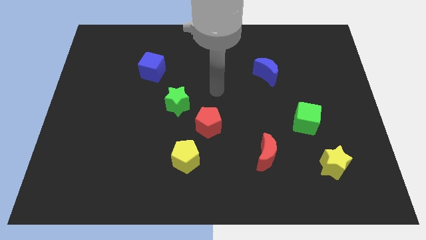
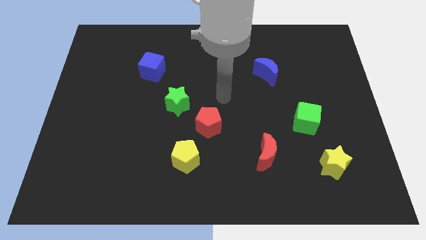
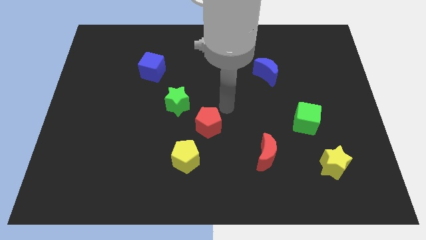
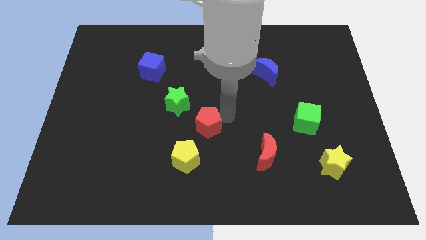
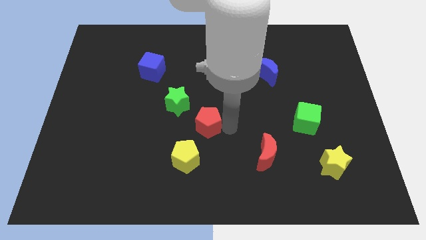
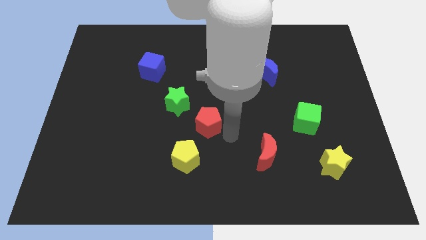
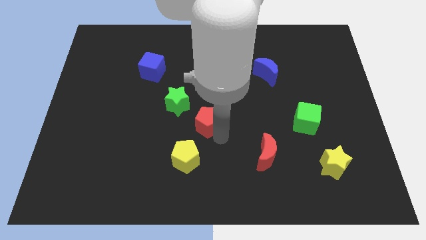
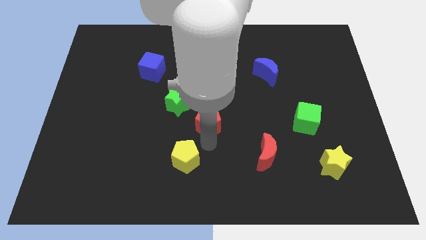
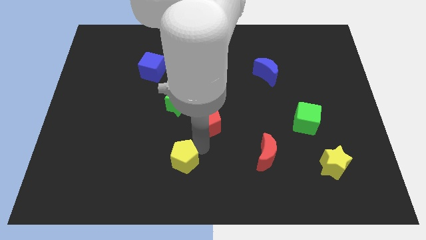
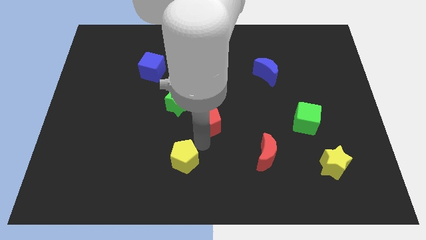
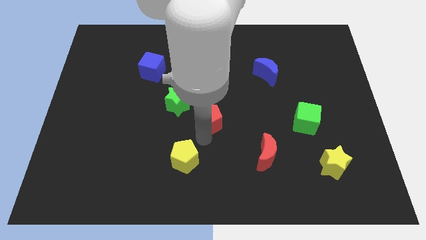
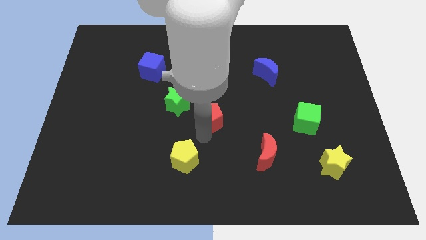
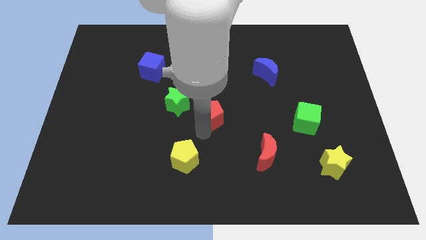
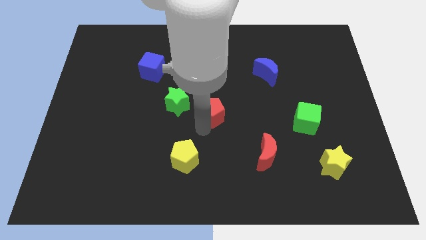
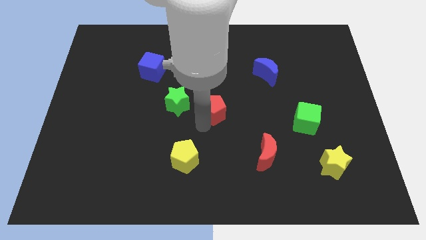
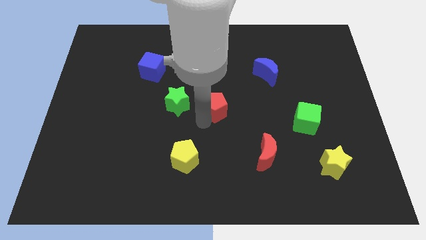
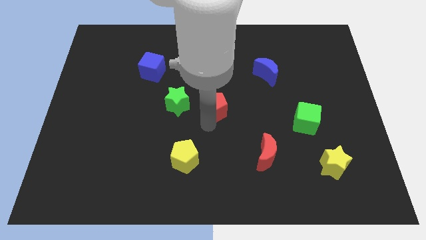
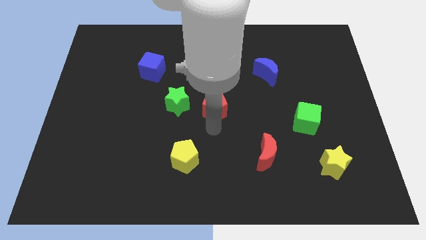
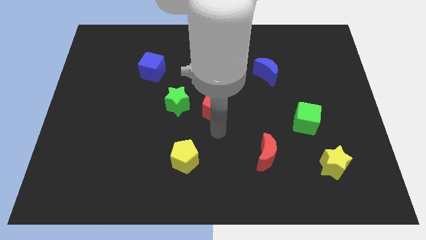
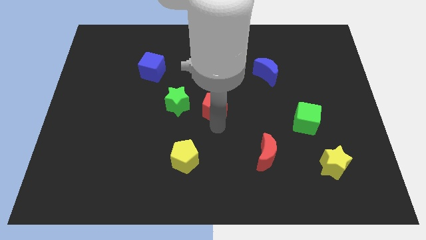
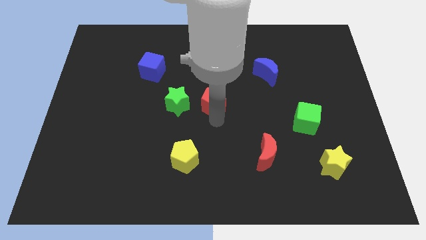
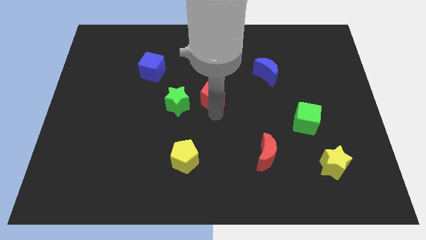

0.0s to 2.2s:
slightly move the red pentagon upwards

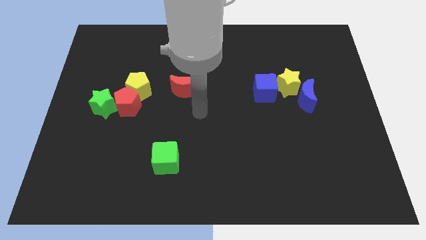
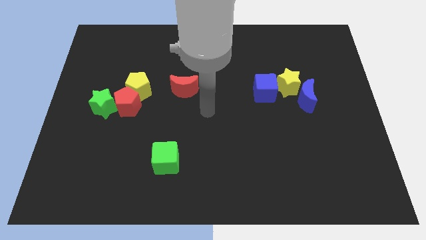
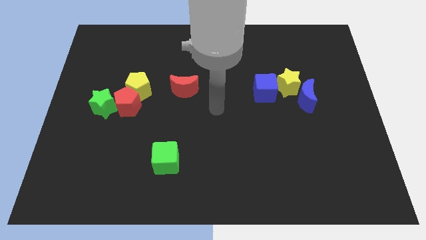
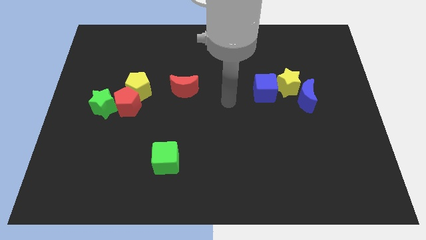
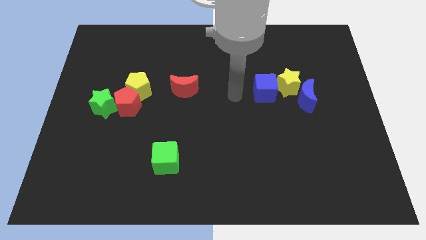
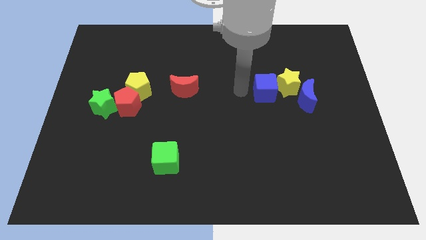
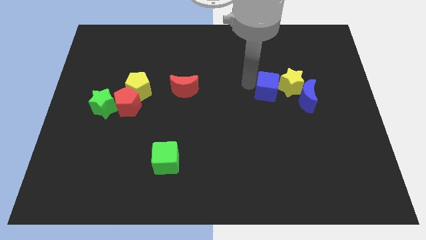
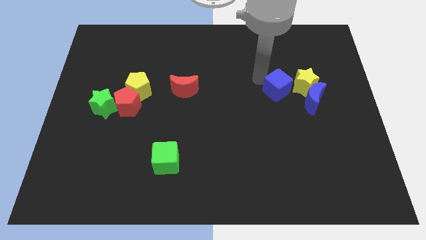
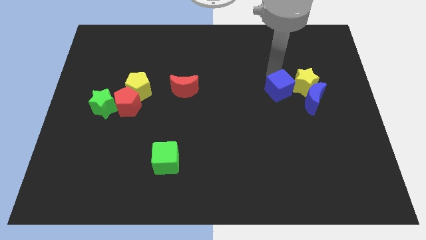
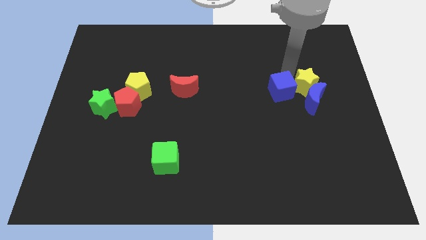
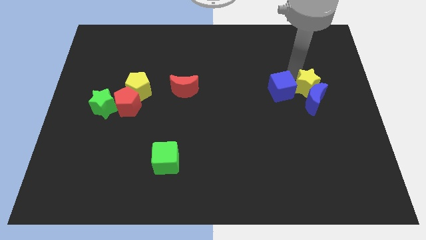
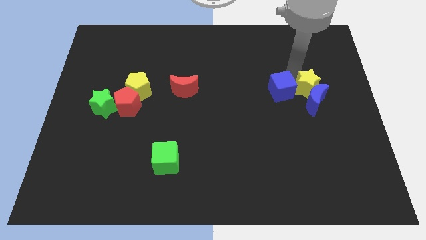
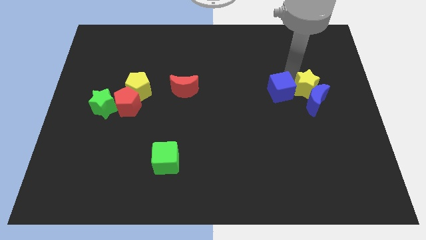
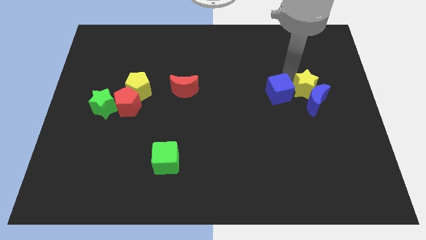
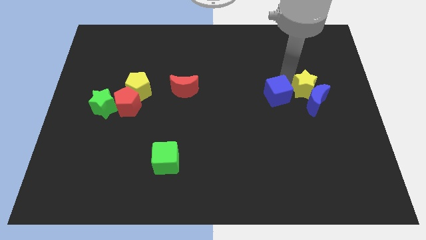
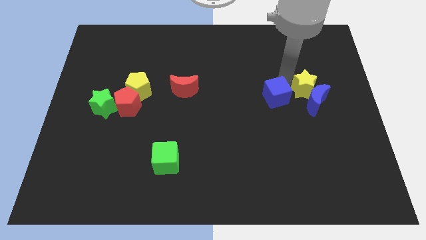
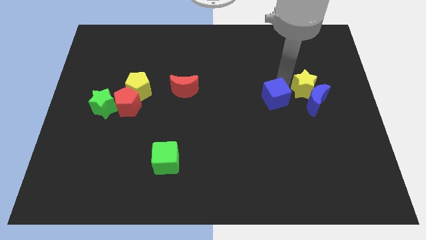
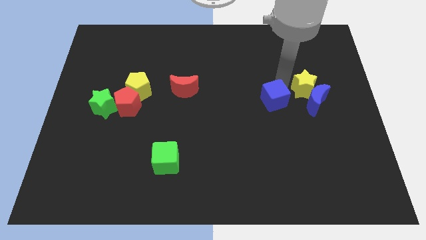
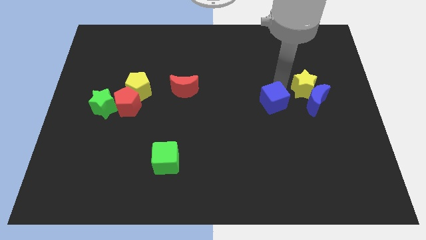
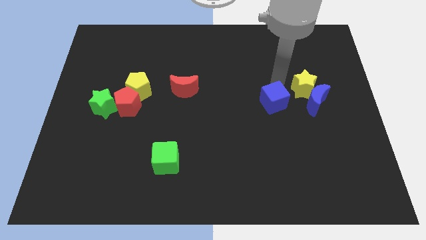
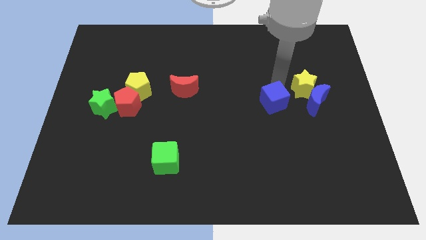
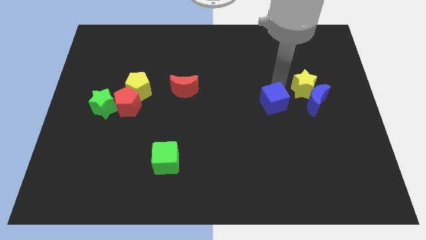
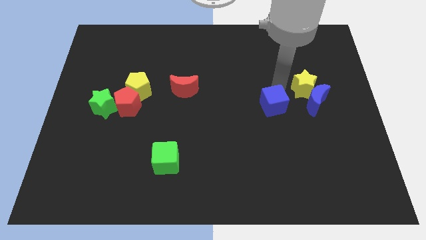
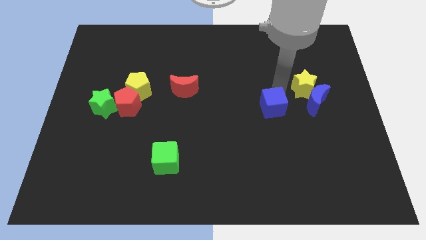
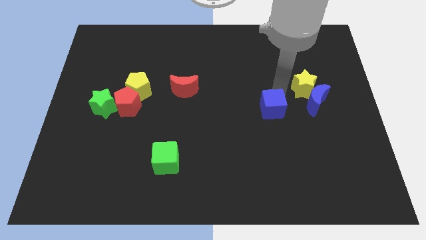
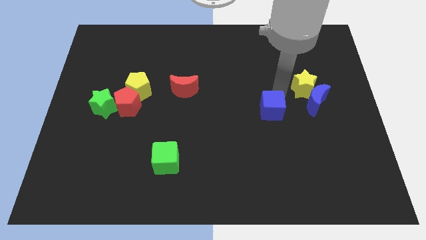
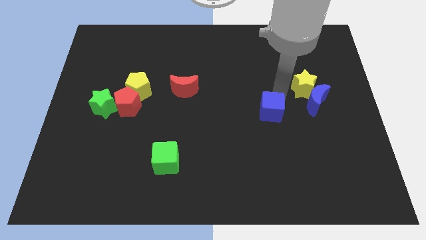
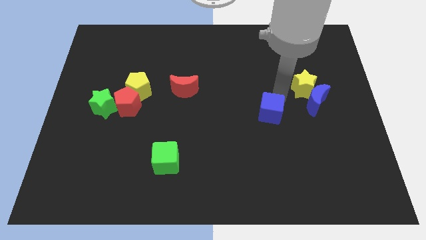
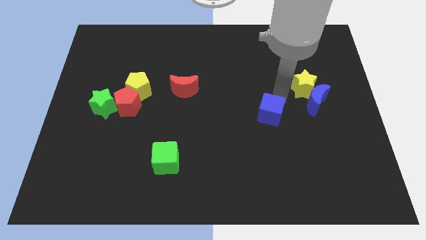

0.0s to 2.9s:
move the blue cube down a little

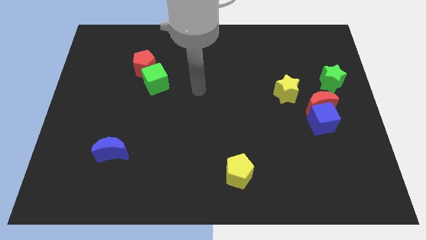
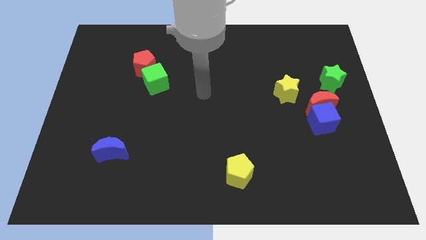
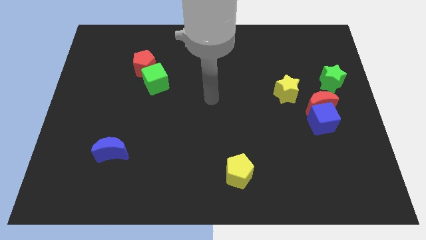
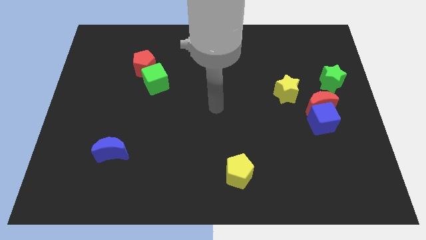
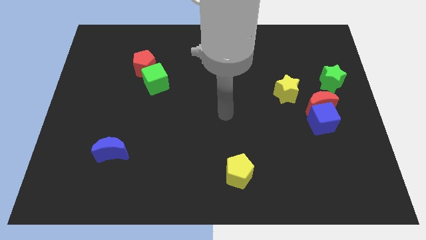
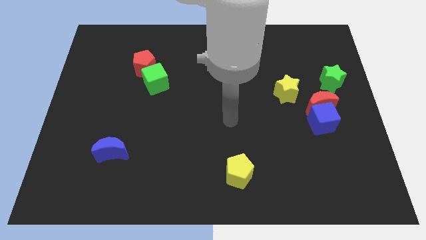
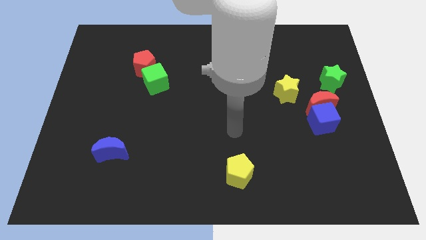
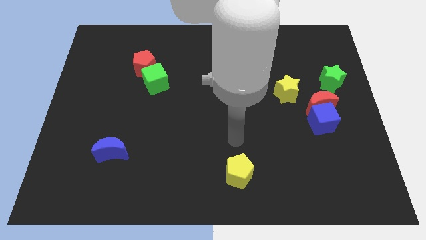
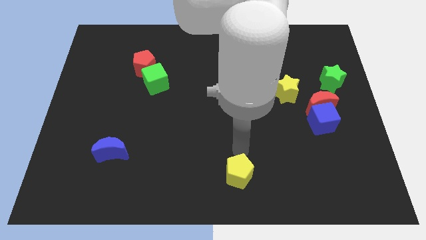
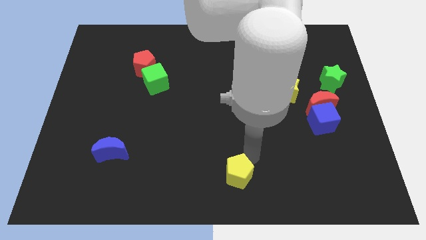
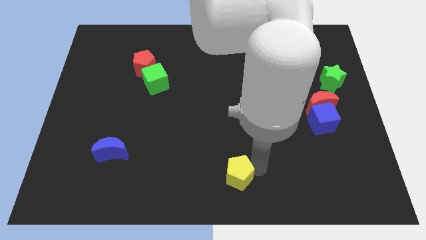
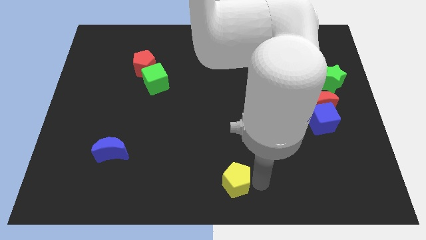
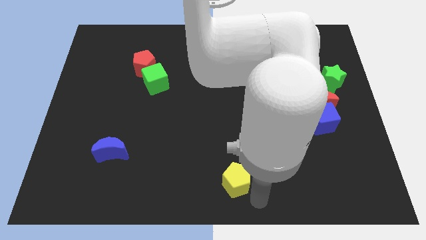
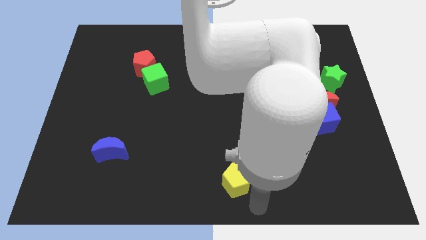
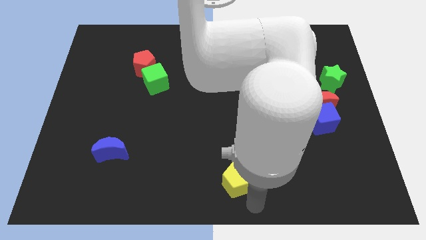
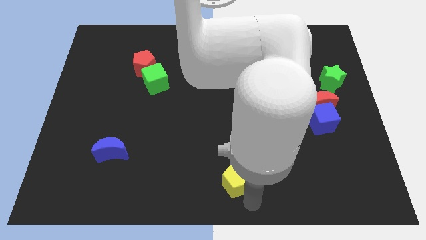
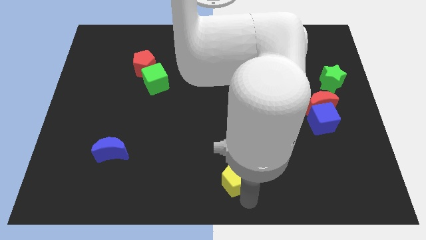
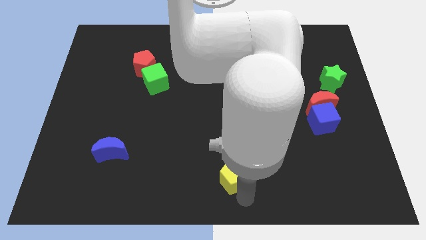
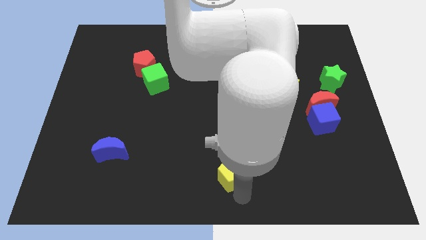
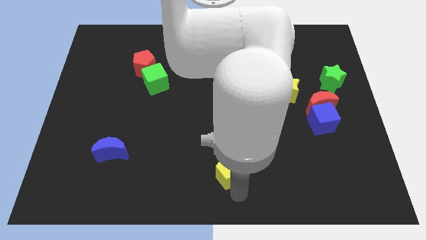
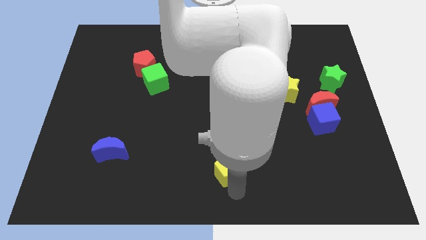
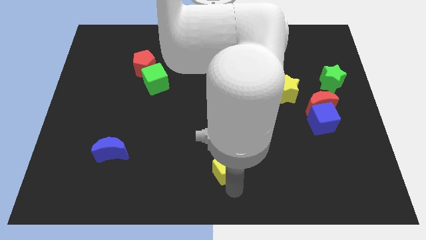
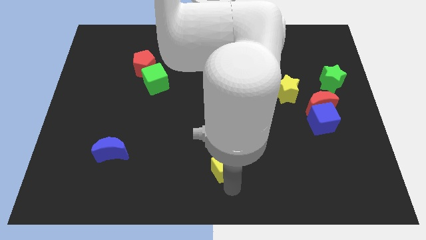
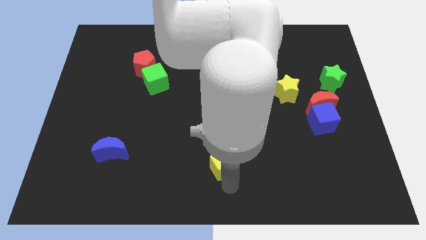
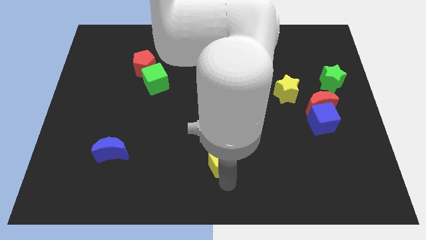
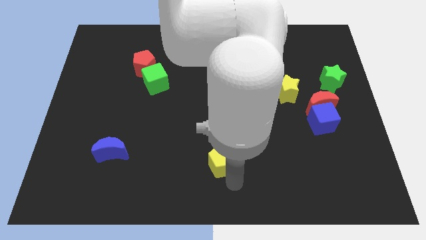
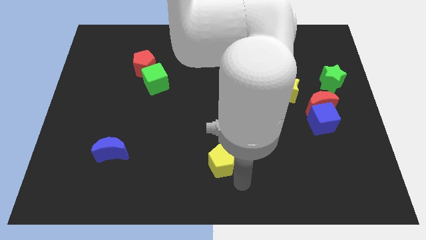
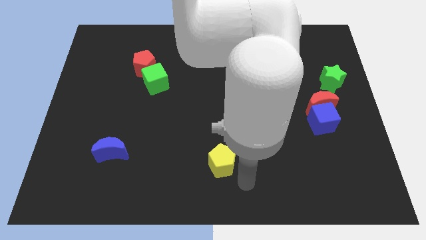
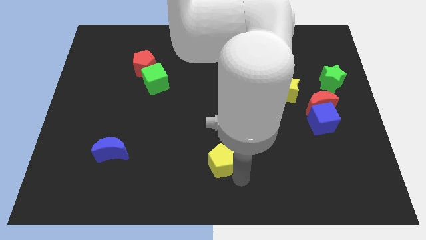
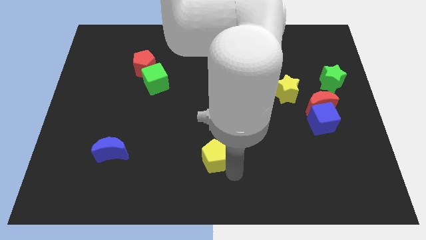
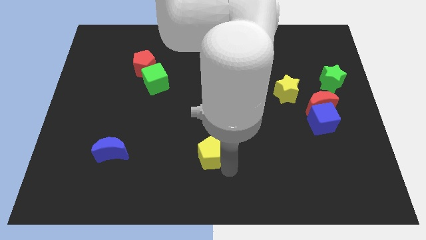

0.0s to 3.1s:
slightly push the yellow pentagon diagonally upwards and to the left
